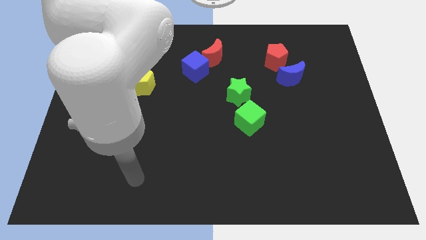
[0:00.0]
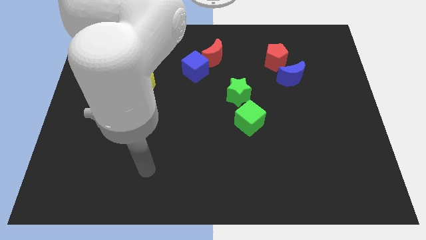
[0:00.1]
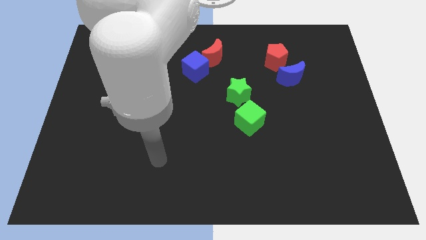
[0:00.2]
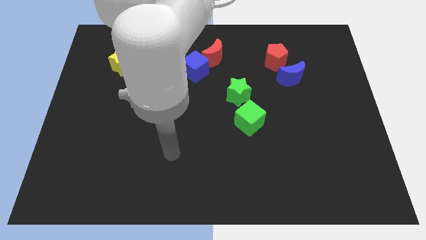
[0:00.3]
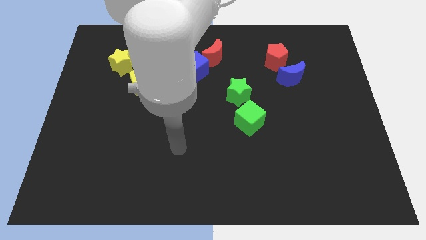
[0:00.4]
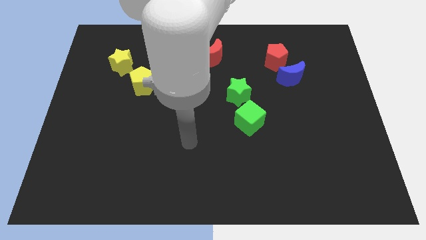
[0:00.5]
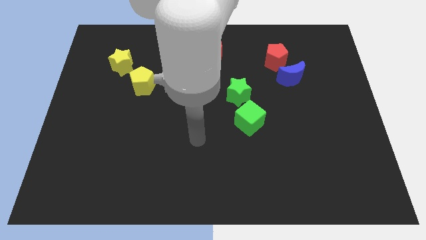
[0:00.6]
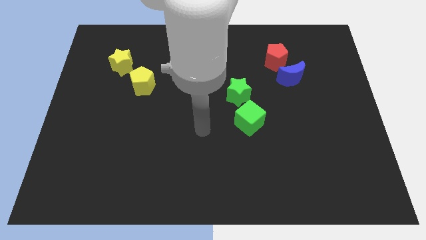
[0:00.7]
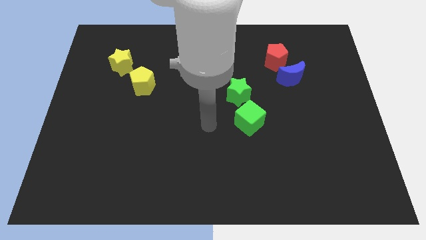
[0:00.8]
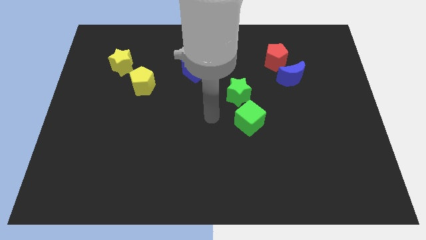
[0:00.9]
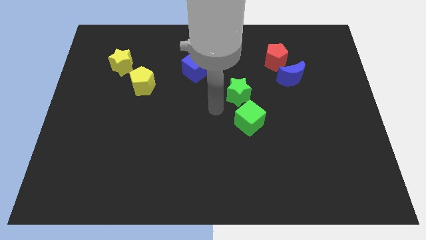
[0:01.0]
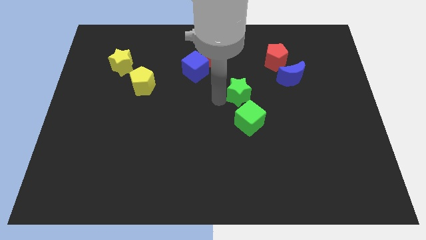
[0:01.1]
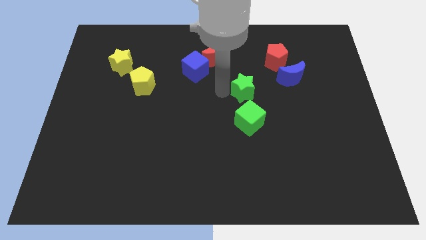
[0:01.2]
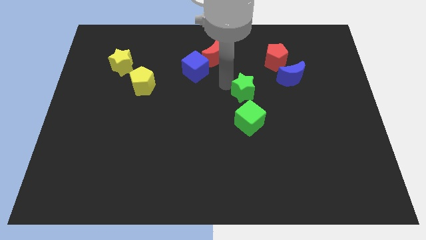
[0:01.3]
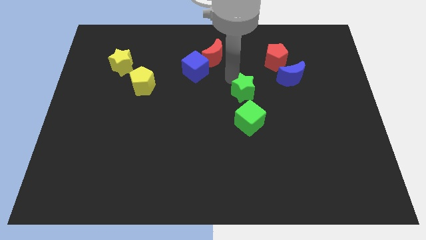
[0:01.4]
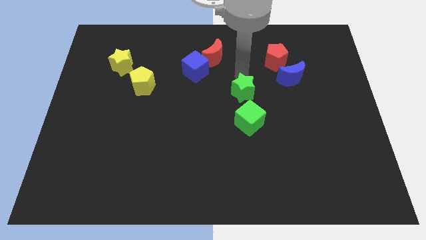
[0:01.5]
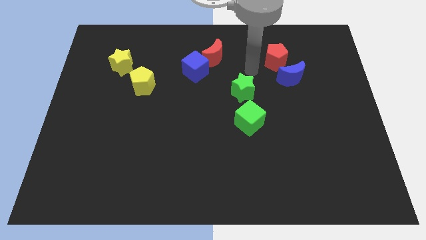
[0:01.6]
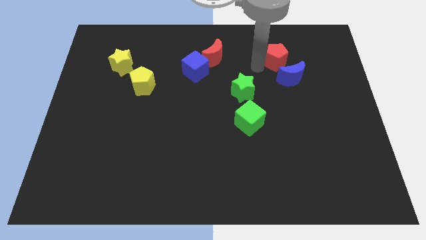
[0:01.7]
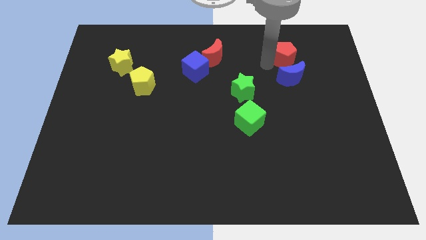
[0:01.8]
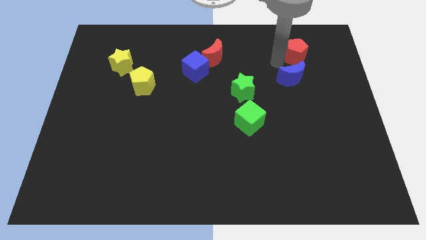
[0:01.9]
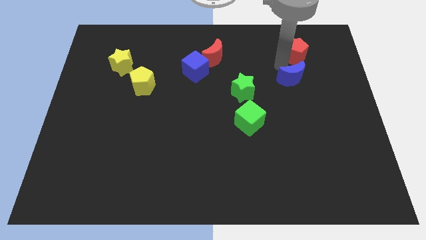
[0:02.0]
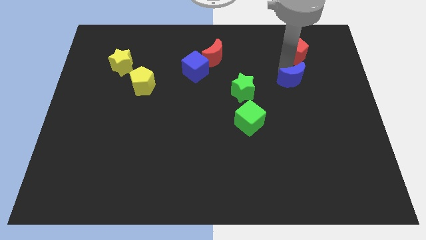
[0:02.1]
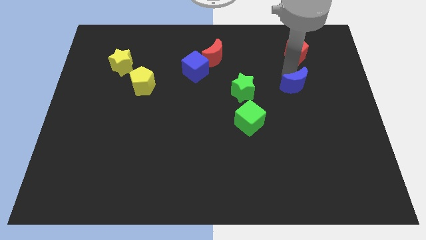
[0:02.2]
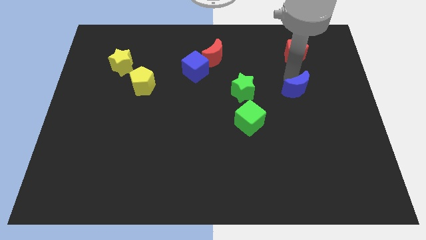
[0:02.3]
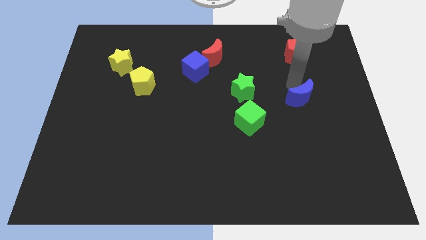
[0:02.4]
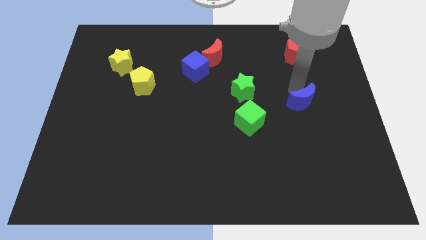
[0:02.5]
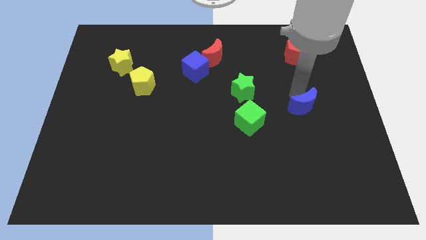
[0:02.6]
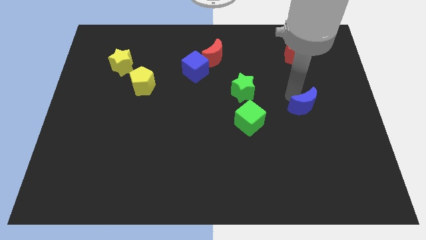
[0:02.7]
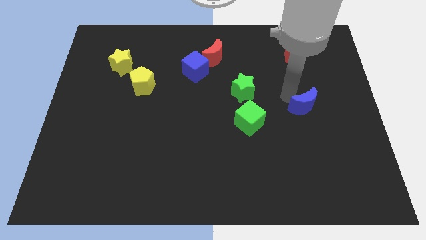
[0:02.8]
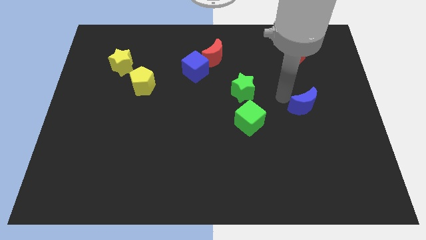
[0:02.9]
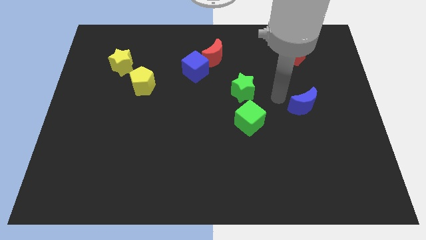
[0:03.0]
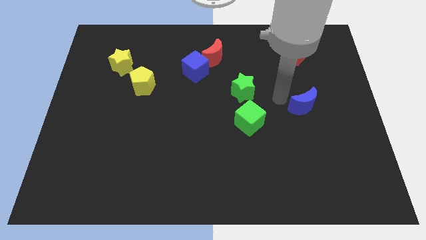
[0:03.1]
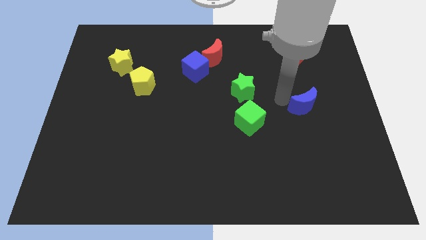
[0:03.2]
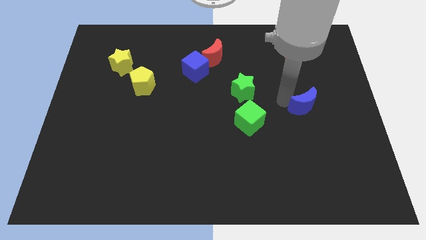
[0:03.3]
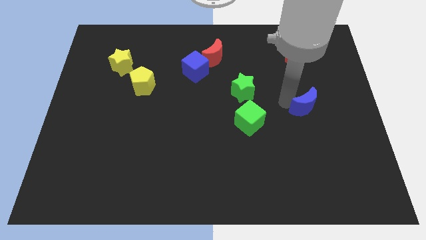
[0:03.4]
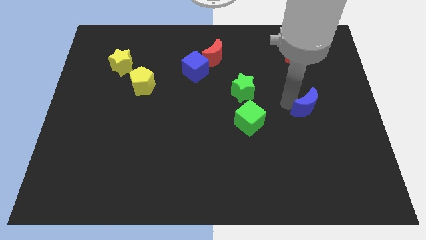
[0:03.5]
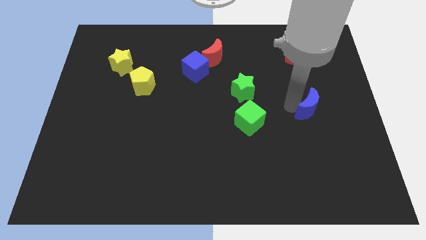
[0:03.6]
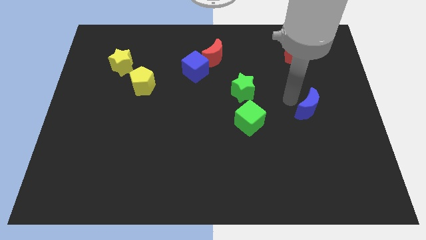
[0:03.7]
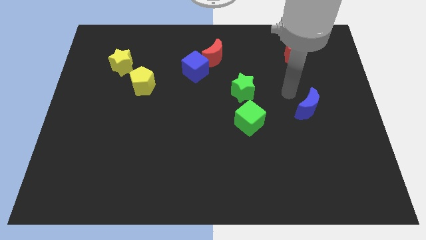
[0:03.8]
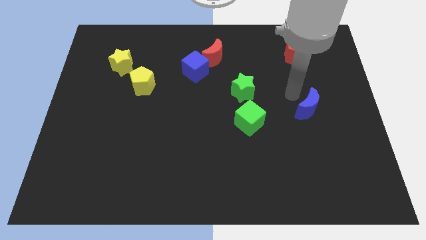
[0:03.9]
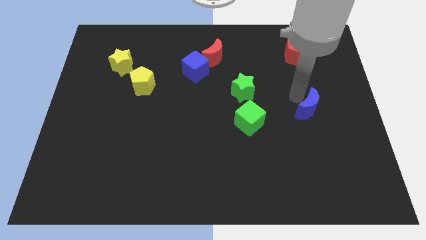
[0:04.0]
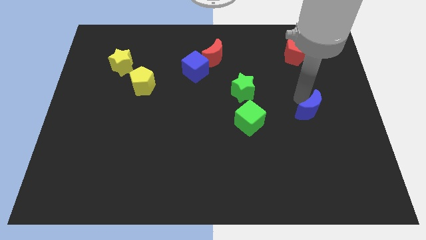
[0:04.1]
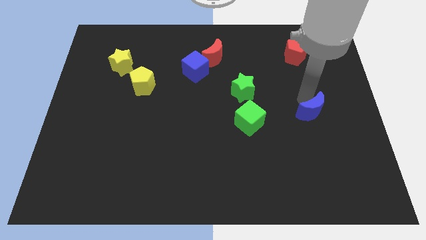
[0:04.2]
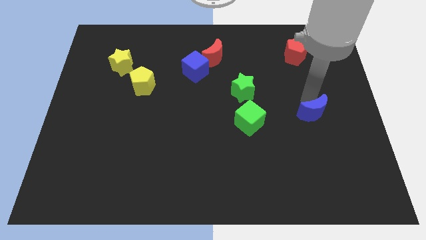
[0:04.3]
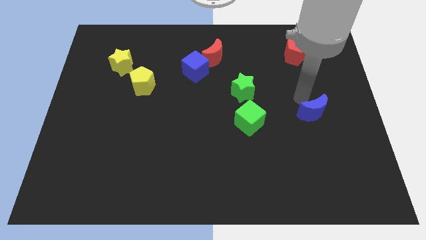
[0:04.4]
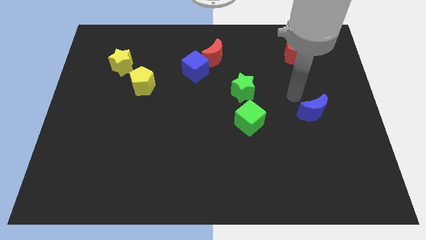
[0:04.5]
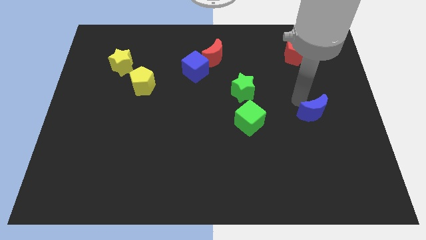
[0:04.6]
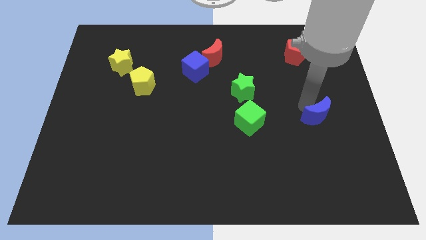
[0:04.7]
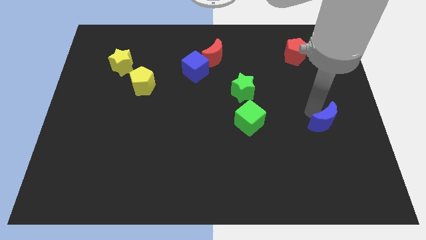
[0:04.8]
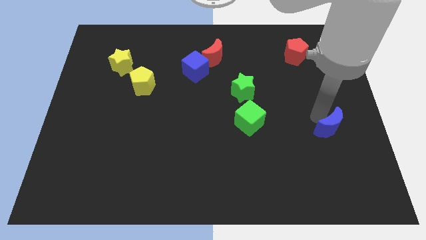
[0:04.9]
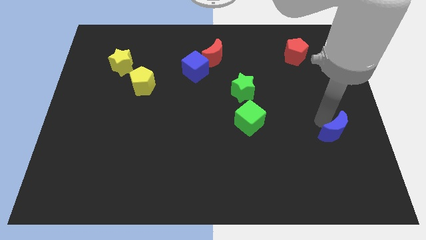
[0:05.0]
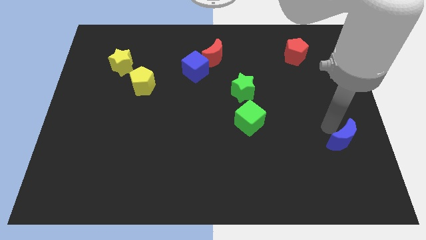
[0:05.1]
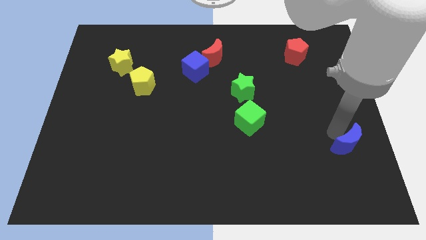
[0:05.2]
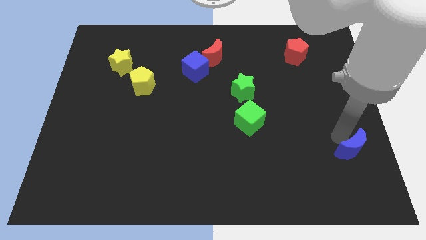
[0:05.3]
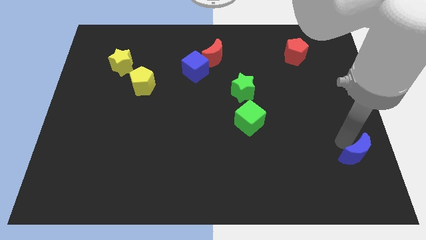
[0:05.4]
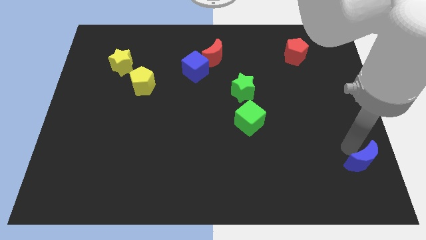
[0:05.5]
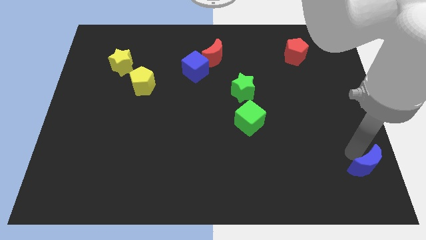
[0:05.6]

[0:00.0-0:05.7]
push the blue moon to the bottom right corner
